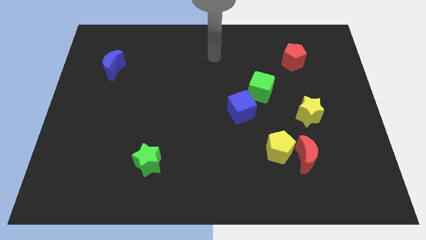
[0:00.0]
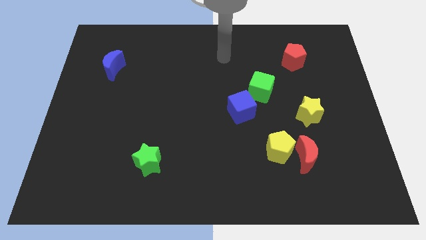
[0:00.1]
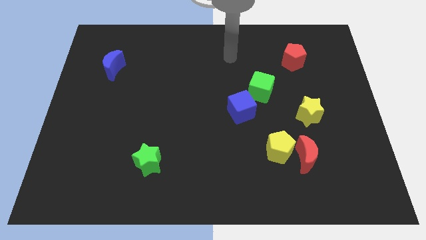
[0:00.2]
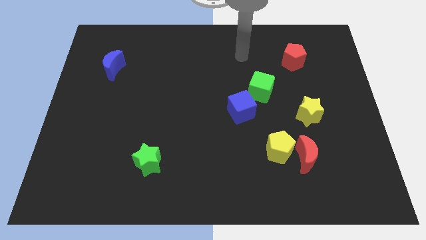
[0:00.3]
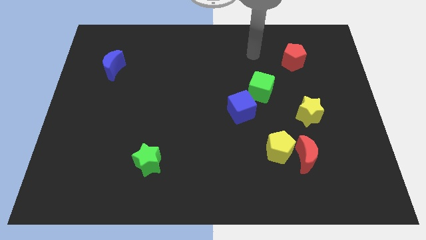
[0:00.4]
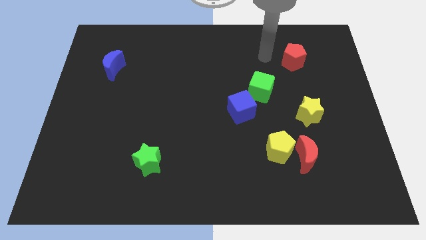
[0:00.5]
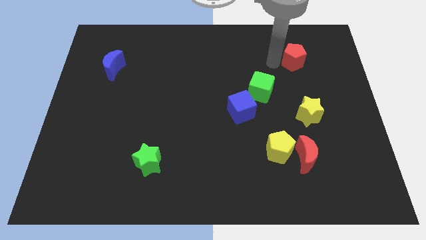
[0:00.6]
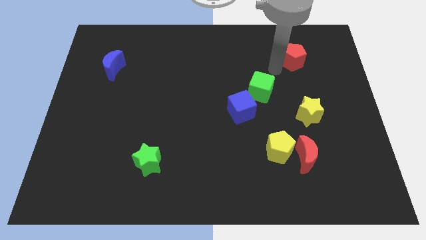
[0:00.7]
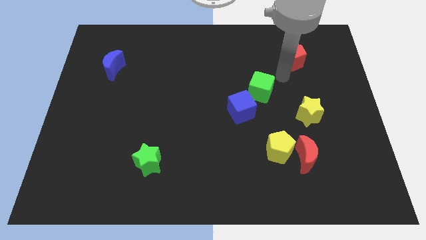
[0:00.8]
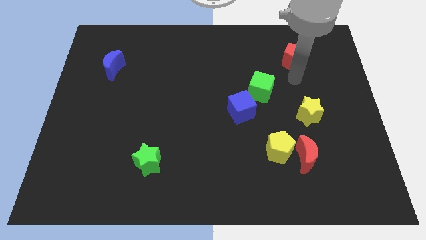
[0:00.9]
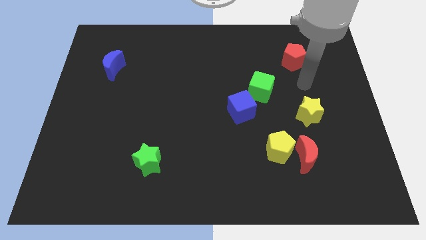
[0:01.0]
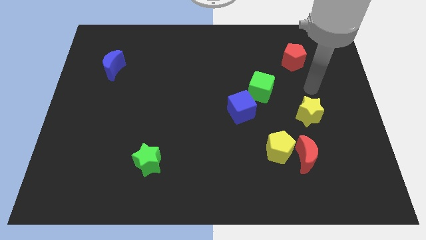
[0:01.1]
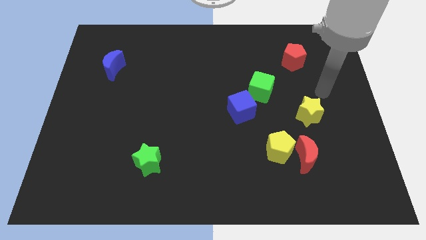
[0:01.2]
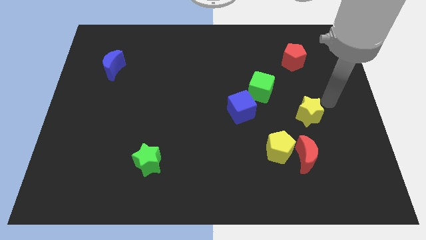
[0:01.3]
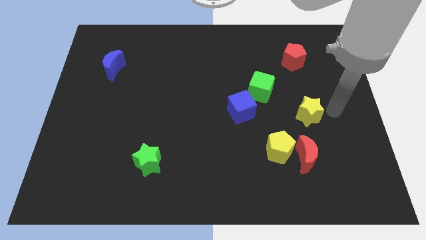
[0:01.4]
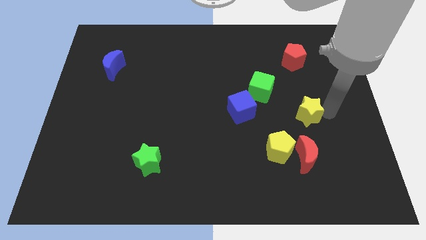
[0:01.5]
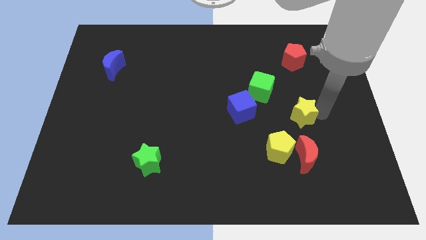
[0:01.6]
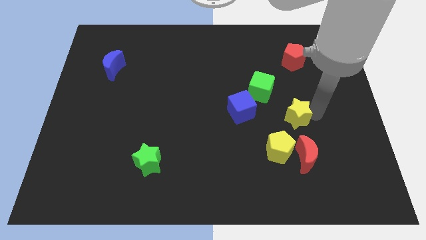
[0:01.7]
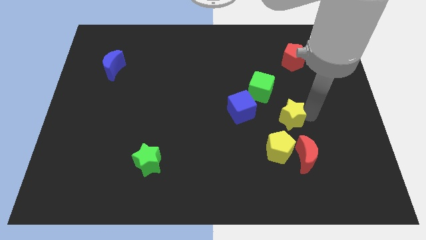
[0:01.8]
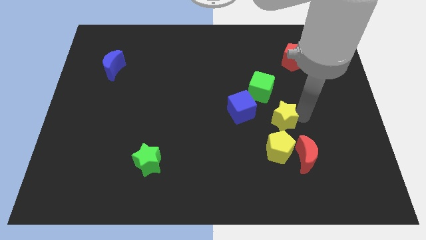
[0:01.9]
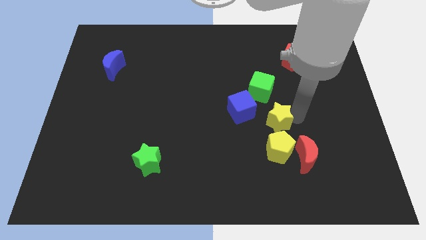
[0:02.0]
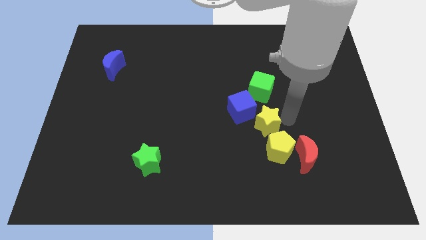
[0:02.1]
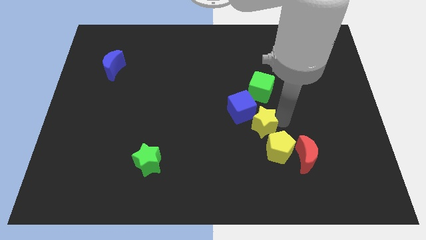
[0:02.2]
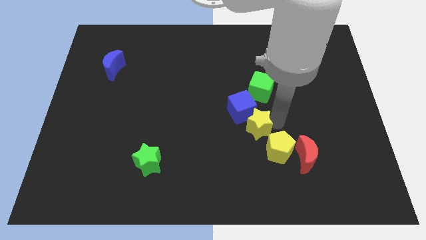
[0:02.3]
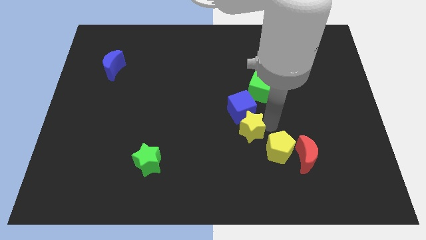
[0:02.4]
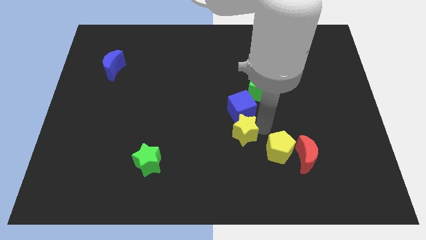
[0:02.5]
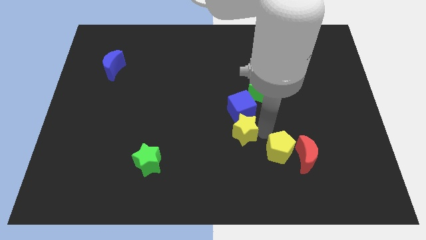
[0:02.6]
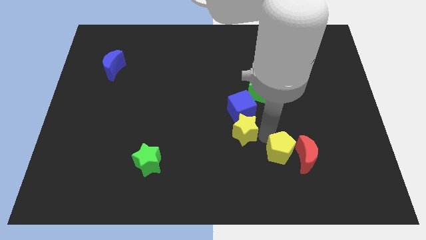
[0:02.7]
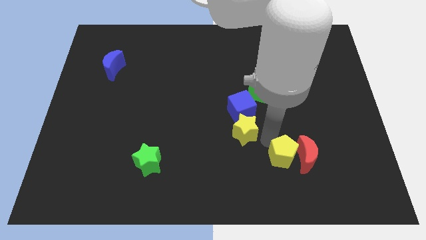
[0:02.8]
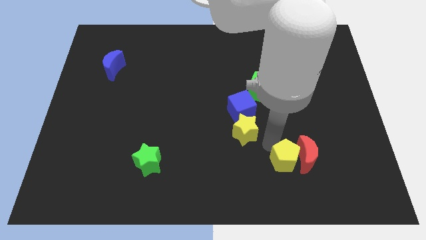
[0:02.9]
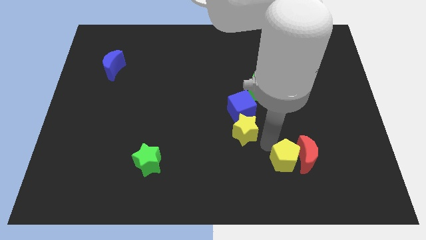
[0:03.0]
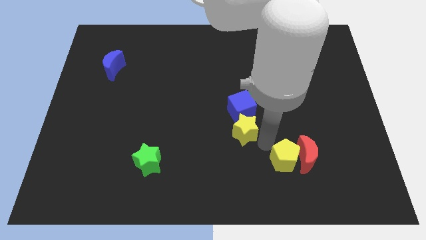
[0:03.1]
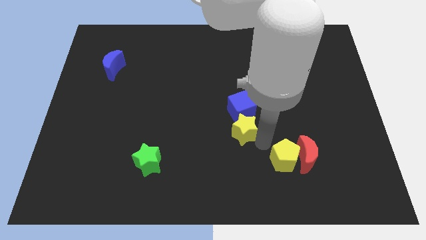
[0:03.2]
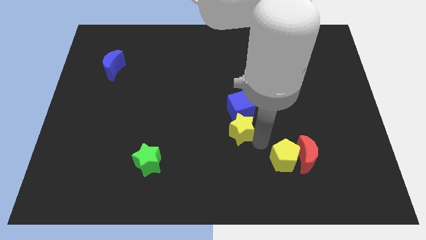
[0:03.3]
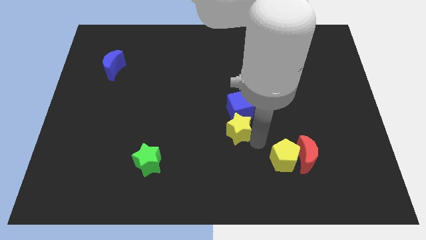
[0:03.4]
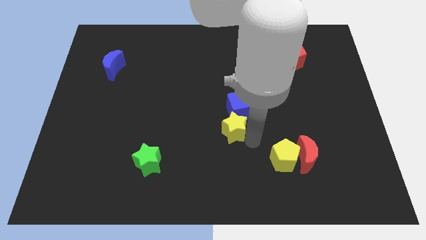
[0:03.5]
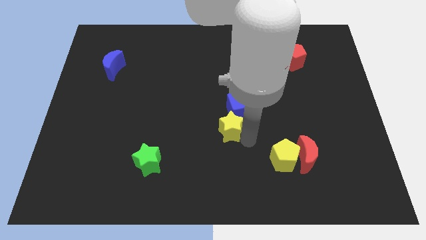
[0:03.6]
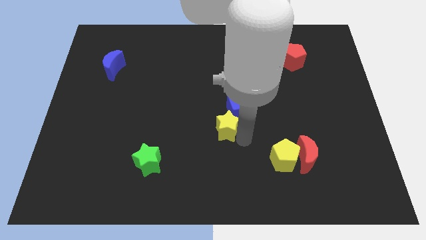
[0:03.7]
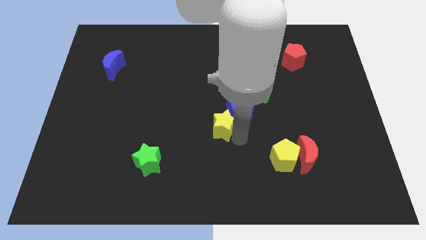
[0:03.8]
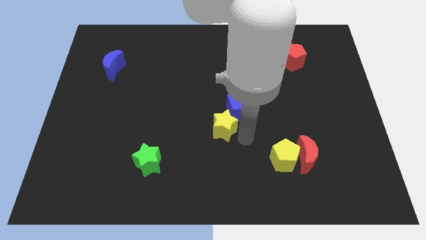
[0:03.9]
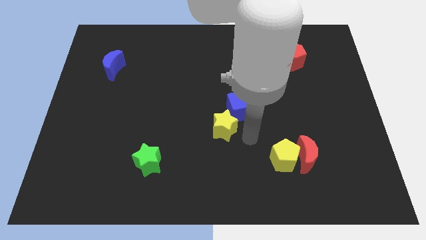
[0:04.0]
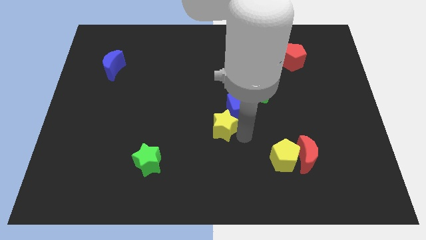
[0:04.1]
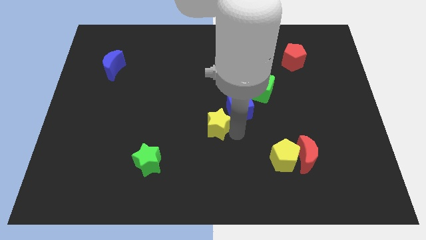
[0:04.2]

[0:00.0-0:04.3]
move the yellow star to the left

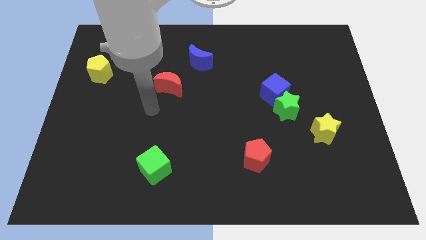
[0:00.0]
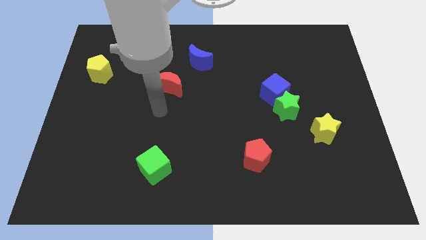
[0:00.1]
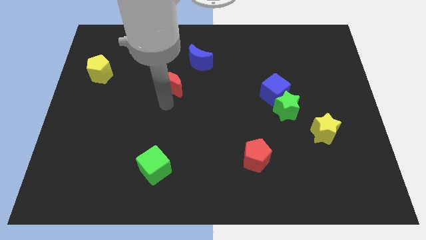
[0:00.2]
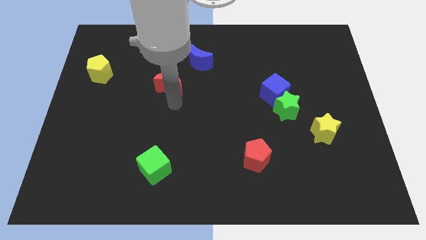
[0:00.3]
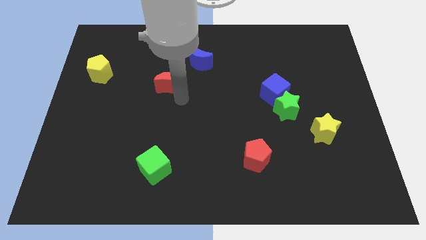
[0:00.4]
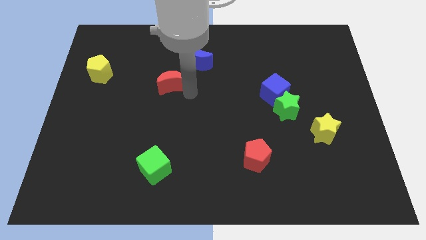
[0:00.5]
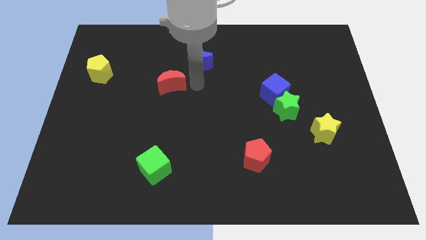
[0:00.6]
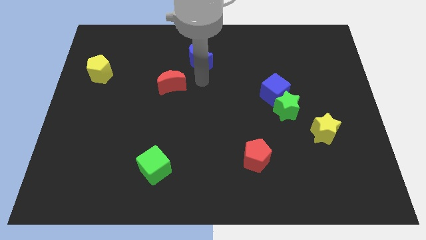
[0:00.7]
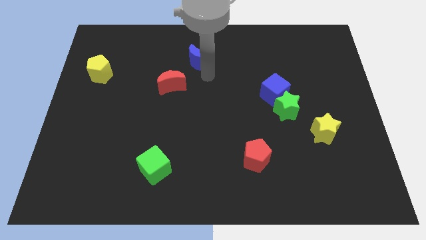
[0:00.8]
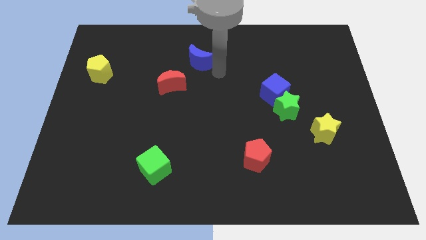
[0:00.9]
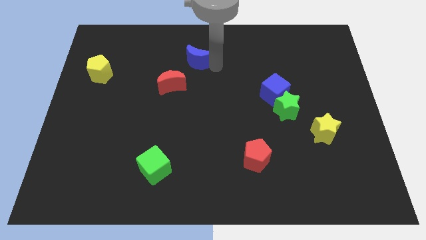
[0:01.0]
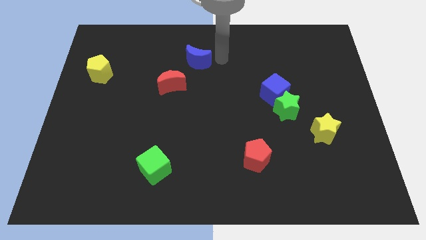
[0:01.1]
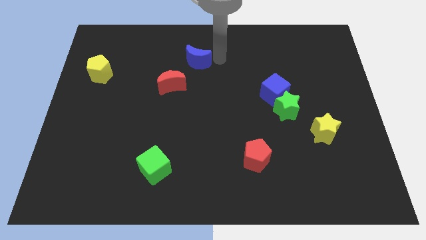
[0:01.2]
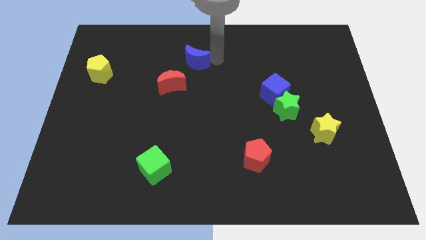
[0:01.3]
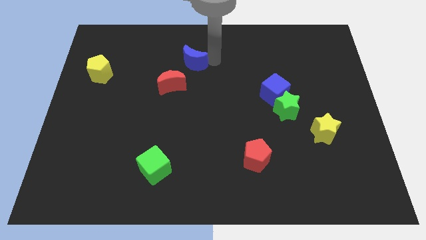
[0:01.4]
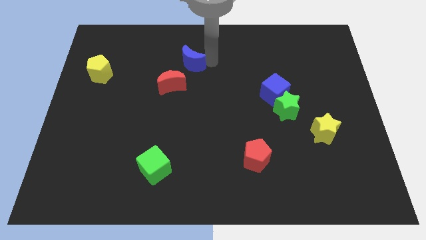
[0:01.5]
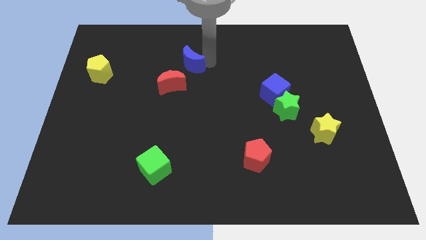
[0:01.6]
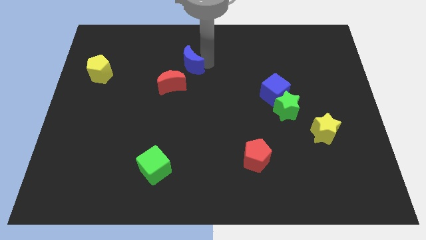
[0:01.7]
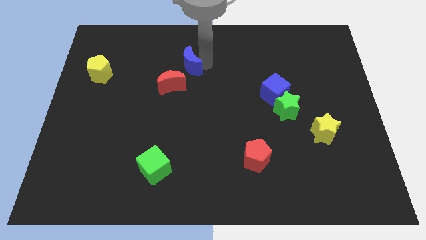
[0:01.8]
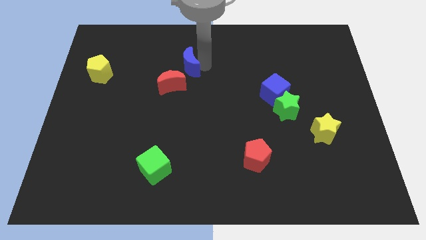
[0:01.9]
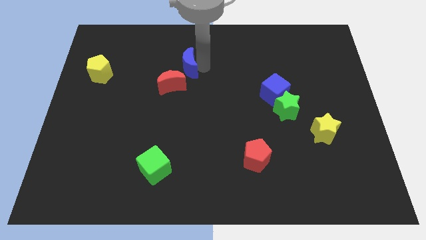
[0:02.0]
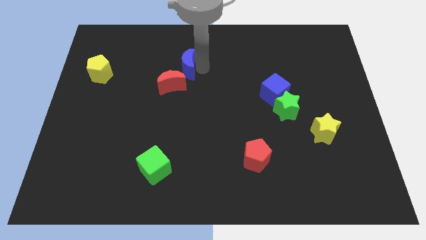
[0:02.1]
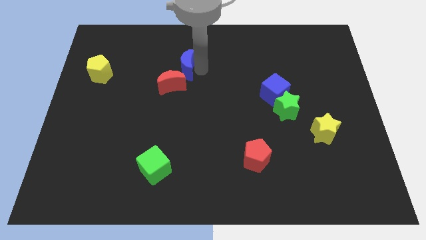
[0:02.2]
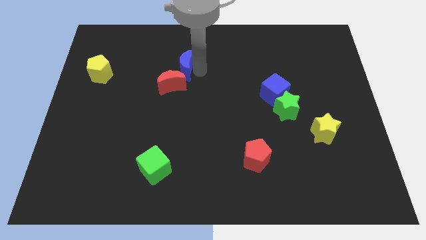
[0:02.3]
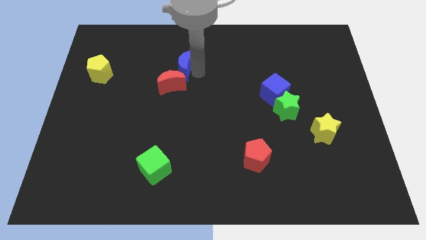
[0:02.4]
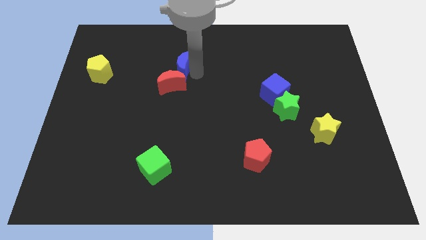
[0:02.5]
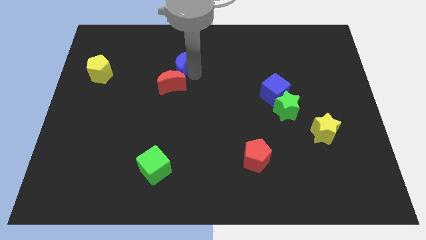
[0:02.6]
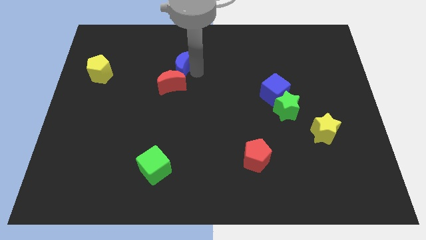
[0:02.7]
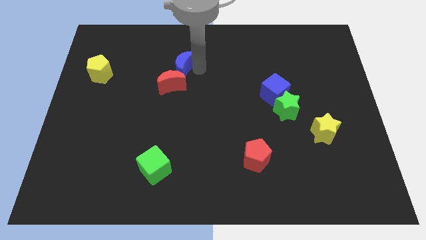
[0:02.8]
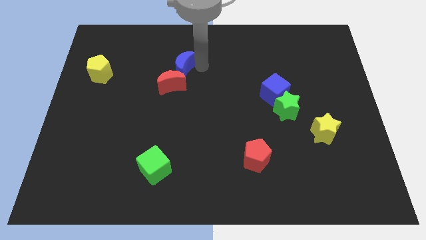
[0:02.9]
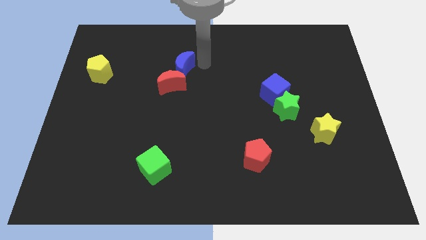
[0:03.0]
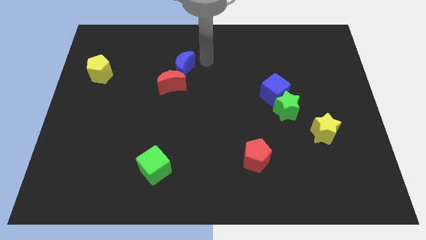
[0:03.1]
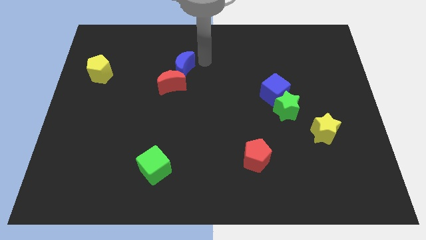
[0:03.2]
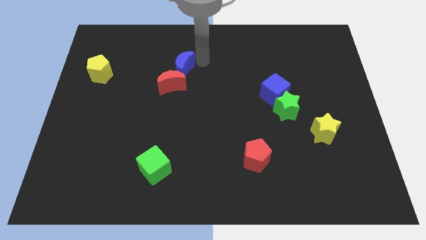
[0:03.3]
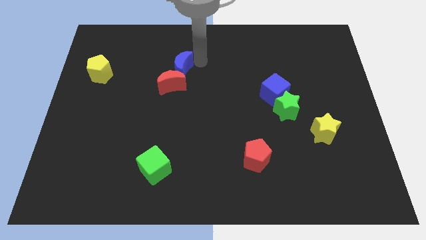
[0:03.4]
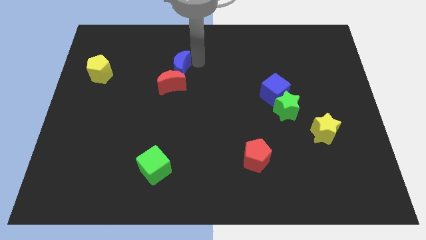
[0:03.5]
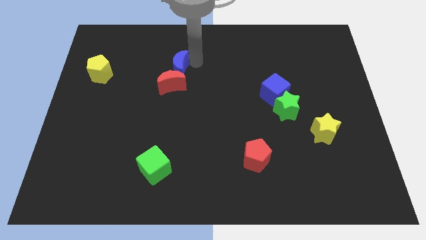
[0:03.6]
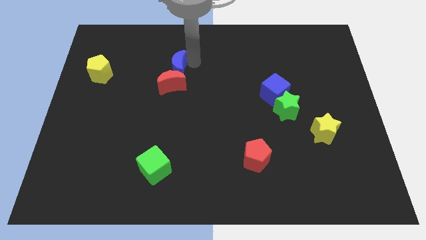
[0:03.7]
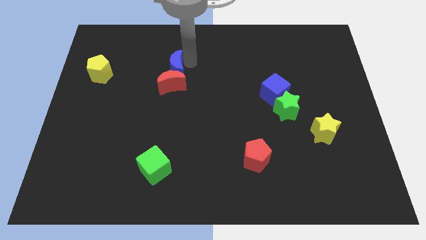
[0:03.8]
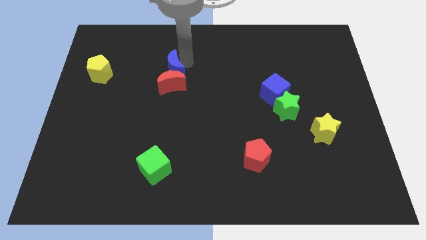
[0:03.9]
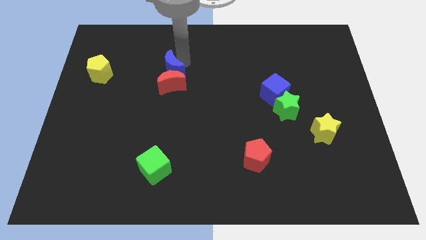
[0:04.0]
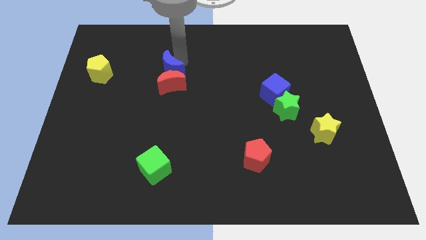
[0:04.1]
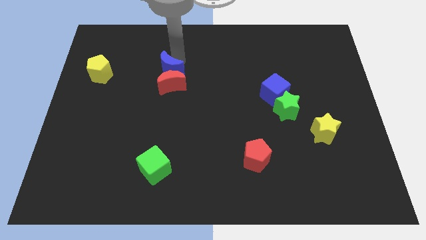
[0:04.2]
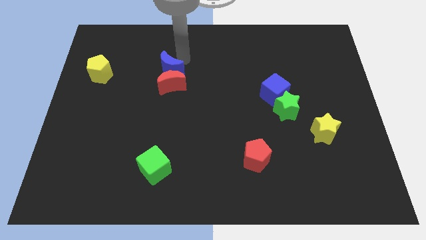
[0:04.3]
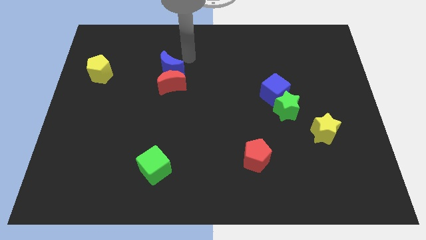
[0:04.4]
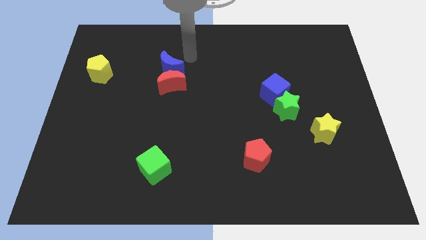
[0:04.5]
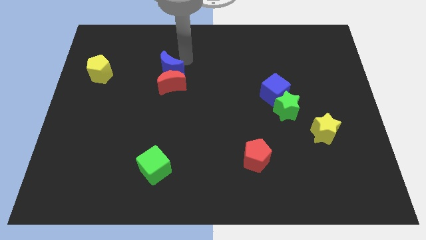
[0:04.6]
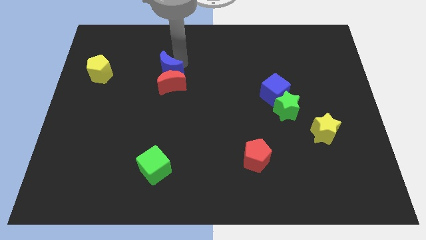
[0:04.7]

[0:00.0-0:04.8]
push the blue moon diagonally downwards and left slightly
